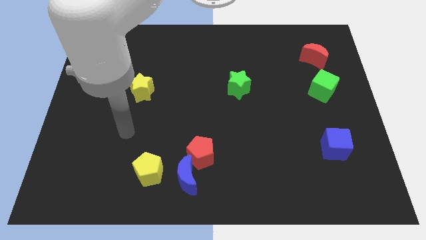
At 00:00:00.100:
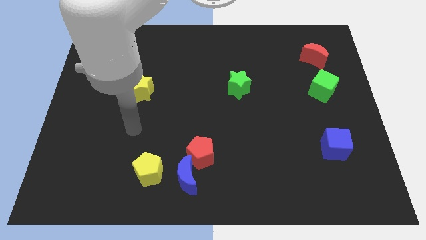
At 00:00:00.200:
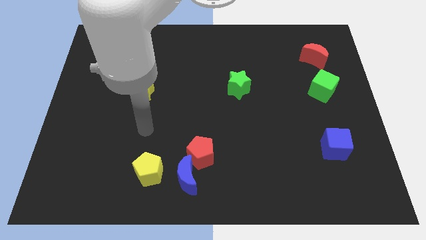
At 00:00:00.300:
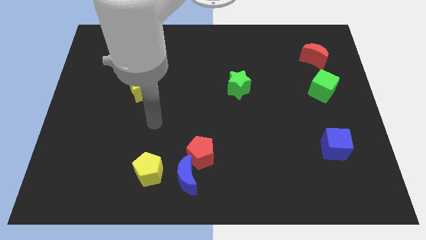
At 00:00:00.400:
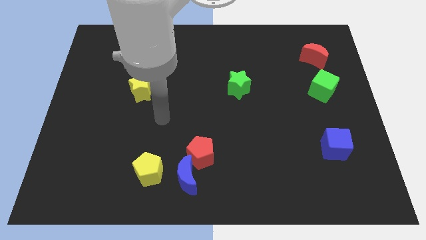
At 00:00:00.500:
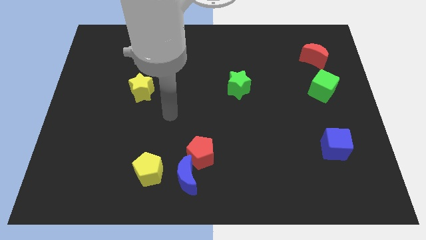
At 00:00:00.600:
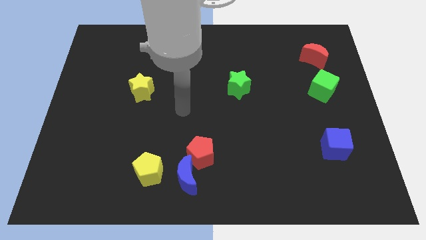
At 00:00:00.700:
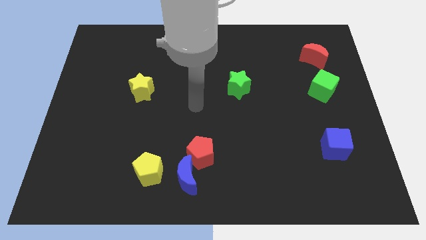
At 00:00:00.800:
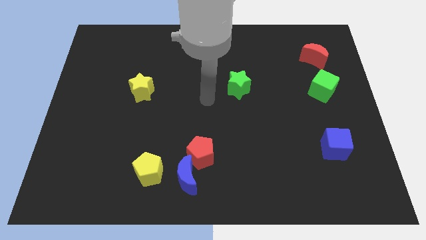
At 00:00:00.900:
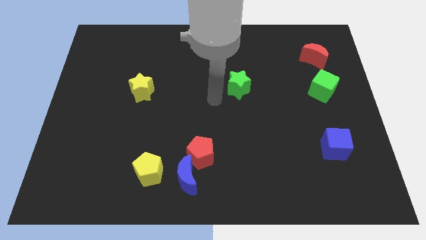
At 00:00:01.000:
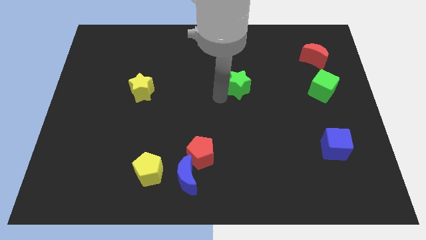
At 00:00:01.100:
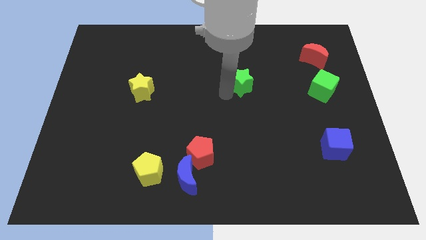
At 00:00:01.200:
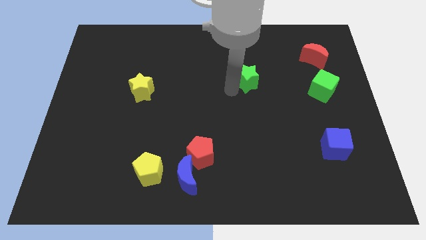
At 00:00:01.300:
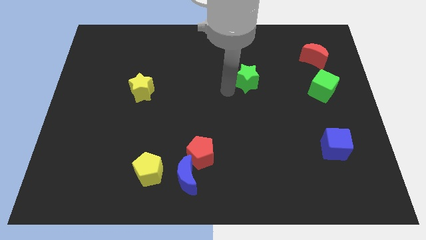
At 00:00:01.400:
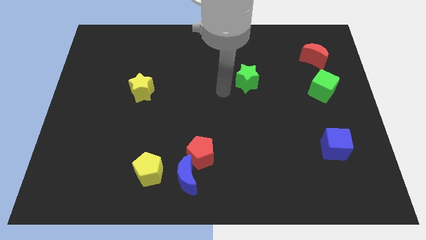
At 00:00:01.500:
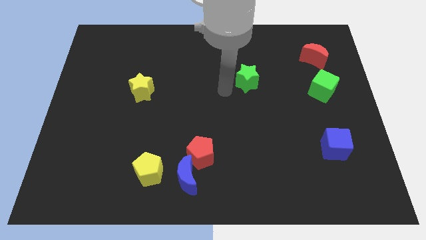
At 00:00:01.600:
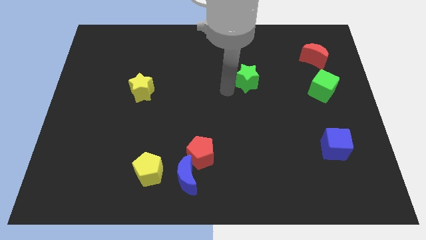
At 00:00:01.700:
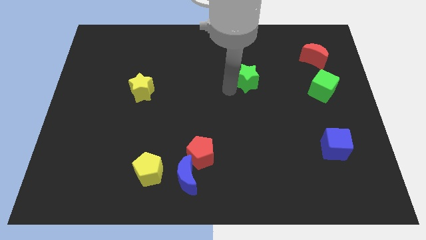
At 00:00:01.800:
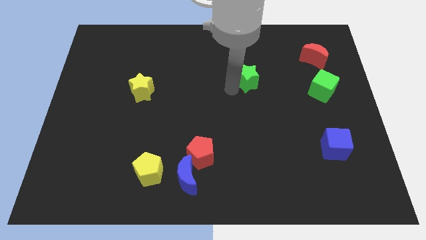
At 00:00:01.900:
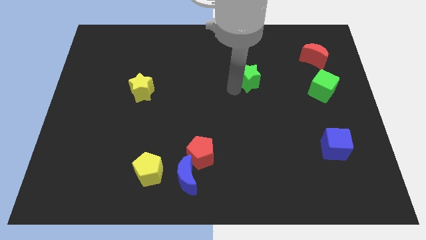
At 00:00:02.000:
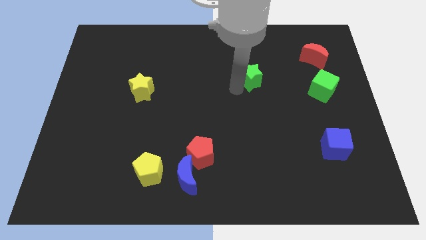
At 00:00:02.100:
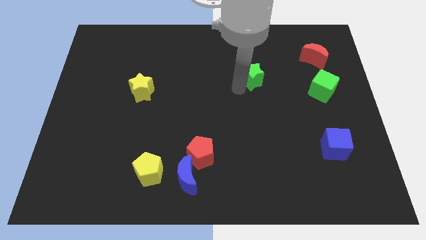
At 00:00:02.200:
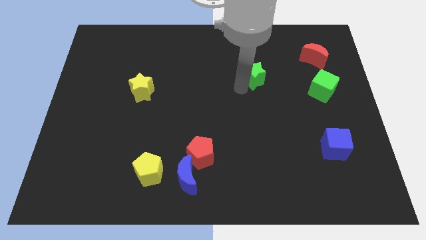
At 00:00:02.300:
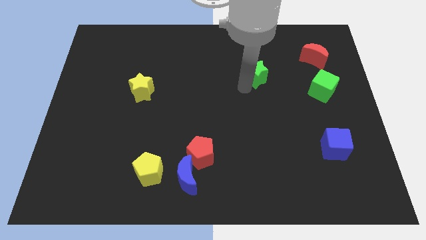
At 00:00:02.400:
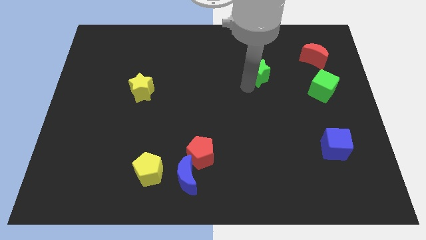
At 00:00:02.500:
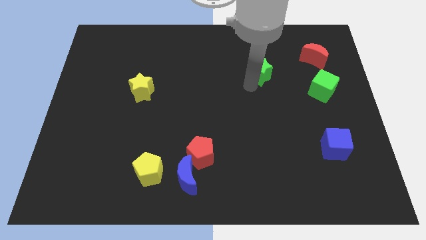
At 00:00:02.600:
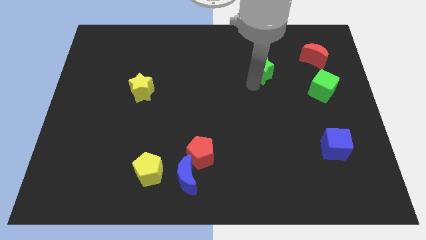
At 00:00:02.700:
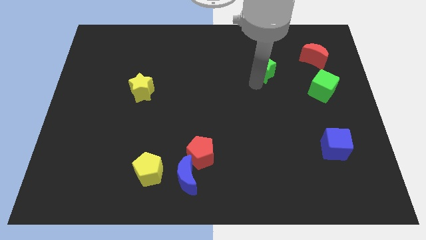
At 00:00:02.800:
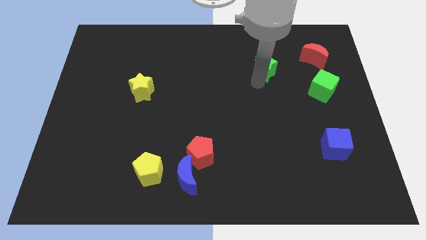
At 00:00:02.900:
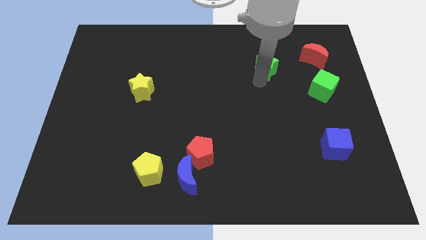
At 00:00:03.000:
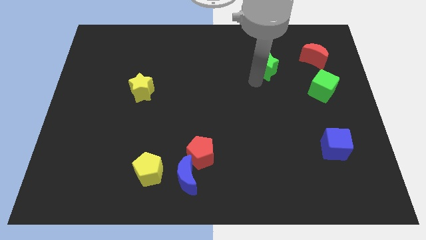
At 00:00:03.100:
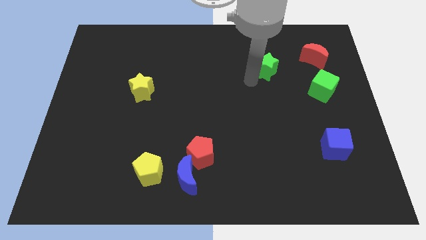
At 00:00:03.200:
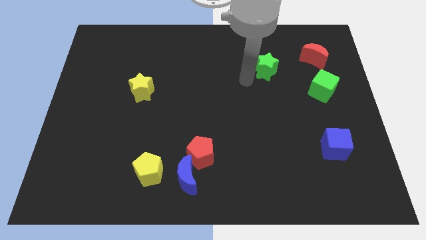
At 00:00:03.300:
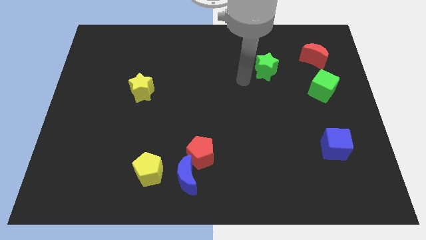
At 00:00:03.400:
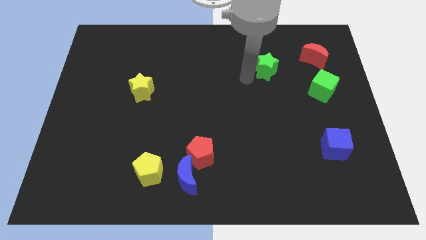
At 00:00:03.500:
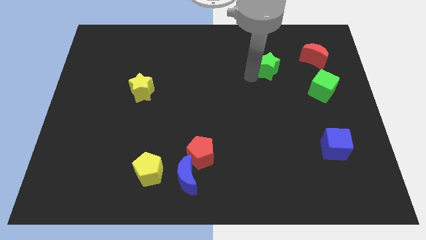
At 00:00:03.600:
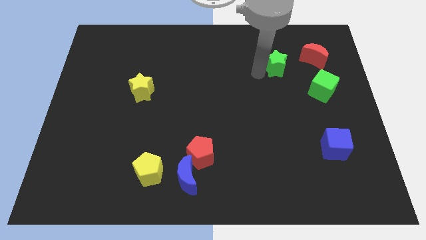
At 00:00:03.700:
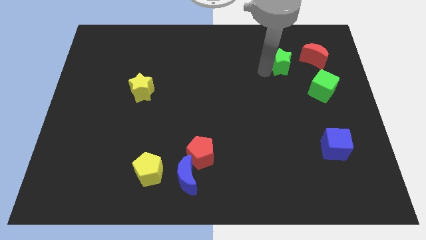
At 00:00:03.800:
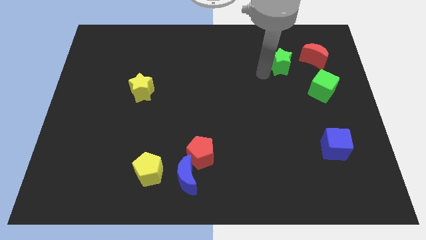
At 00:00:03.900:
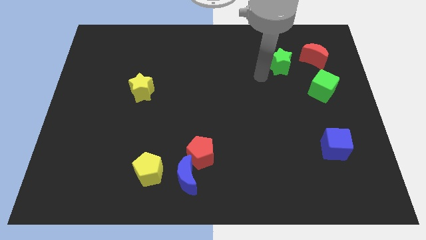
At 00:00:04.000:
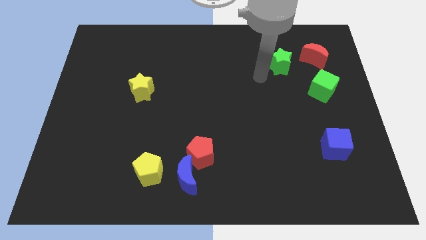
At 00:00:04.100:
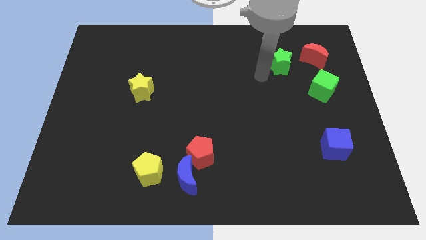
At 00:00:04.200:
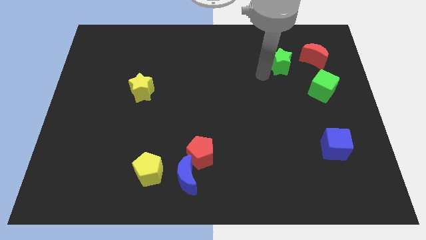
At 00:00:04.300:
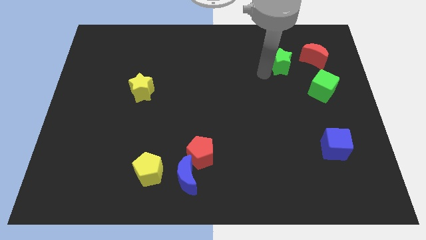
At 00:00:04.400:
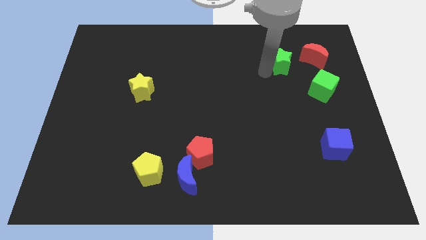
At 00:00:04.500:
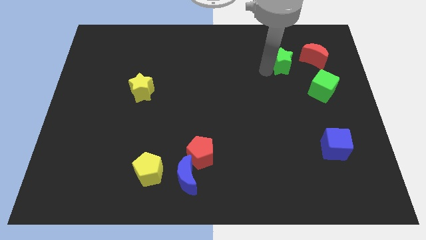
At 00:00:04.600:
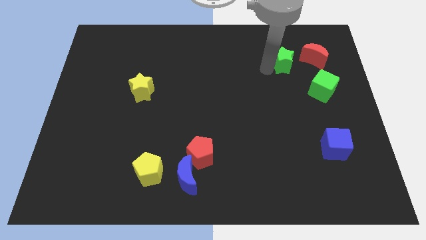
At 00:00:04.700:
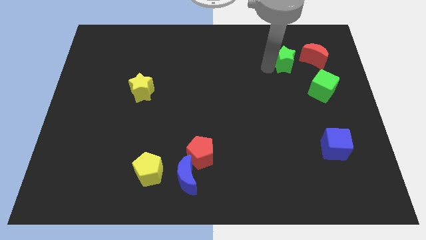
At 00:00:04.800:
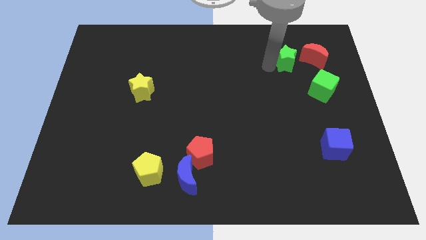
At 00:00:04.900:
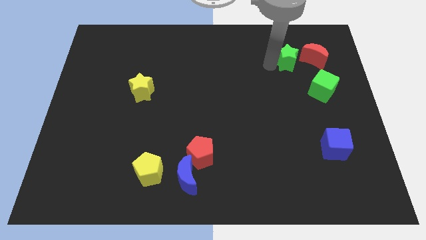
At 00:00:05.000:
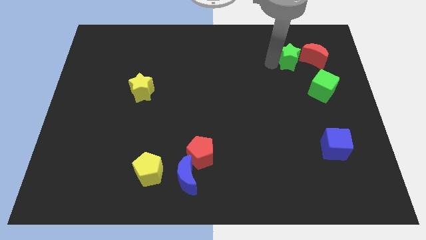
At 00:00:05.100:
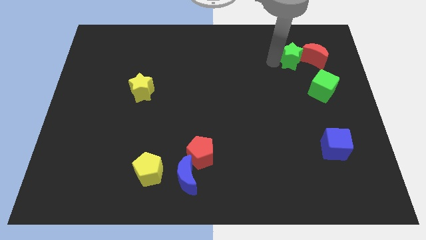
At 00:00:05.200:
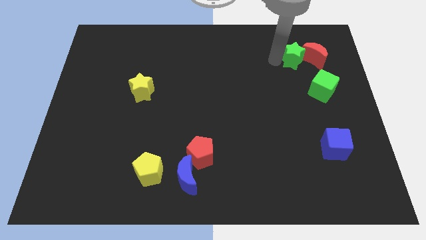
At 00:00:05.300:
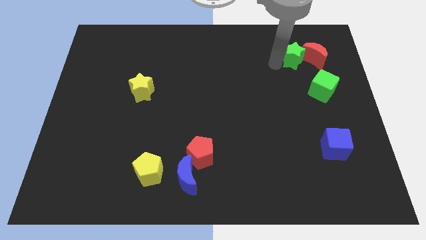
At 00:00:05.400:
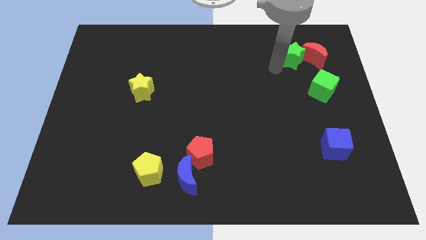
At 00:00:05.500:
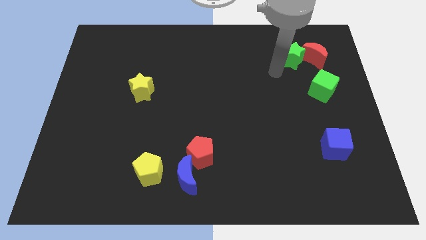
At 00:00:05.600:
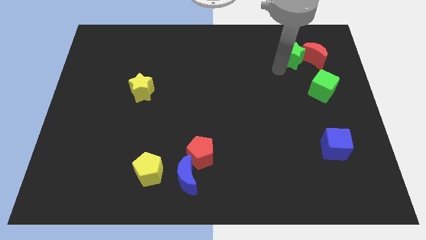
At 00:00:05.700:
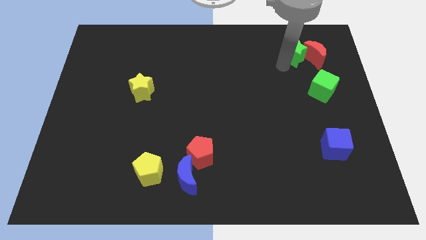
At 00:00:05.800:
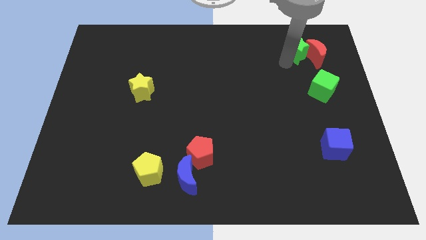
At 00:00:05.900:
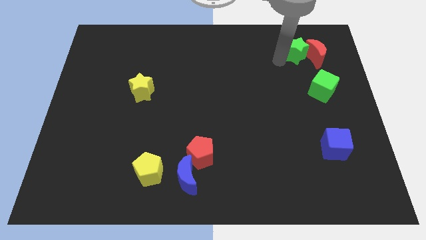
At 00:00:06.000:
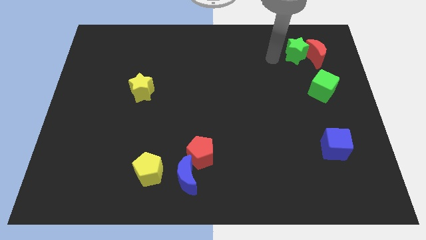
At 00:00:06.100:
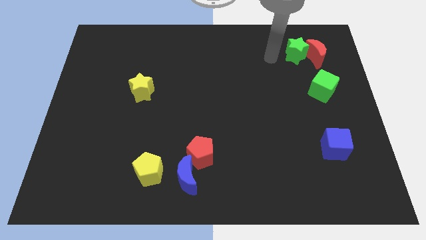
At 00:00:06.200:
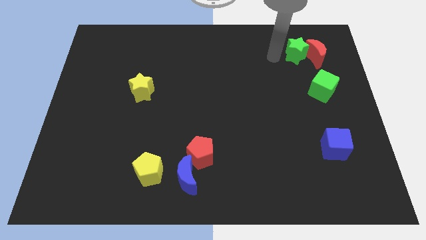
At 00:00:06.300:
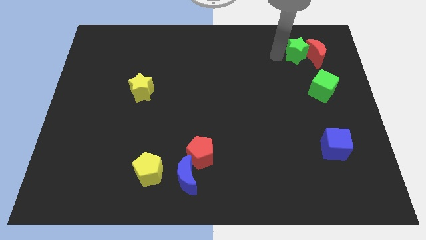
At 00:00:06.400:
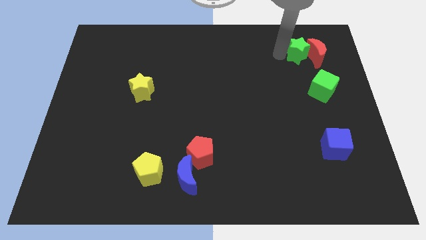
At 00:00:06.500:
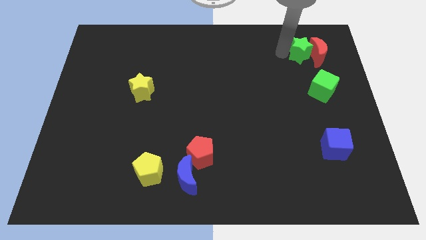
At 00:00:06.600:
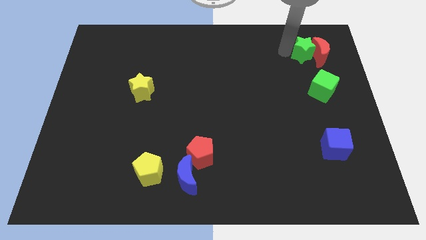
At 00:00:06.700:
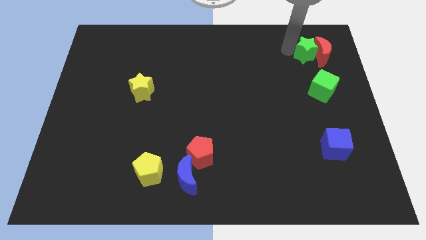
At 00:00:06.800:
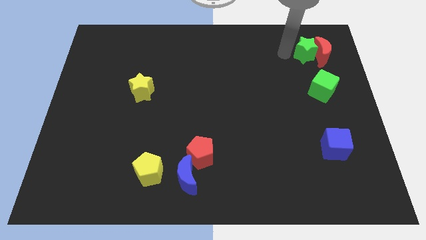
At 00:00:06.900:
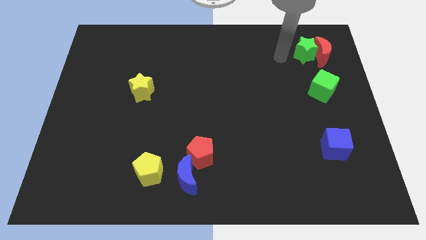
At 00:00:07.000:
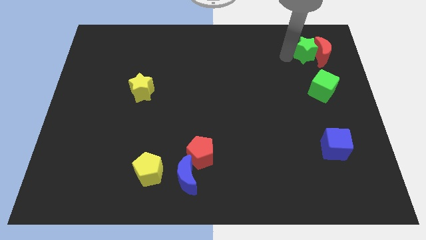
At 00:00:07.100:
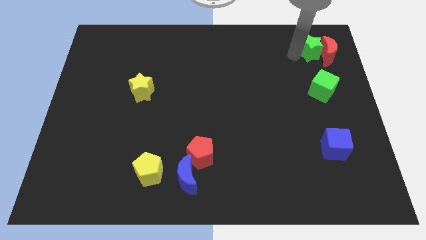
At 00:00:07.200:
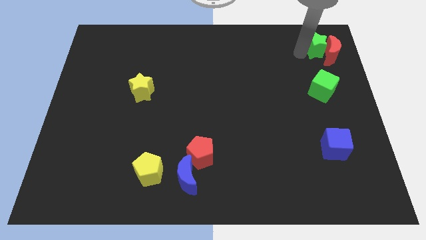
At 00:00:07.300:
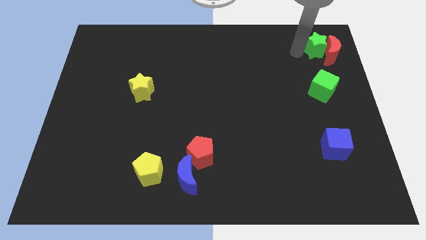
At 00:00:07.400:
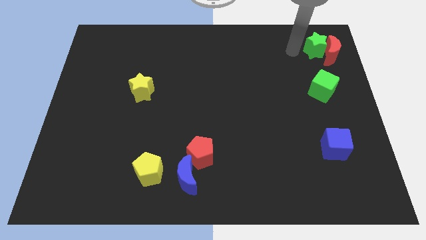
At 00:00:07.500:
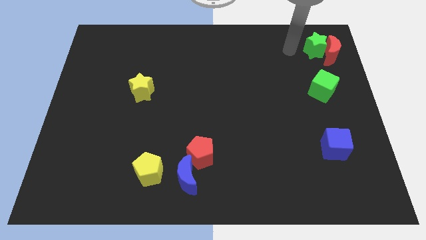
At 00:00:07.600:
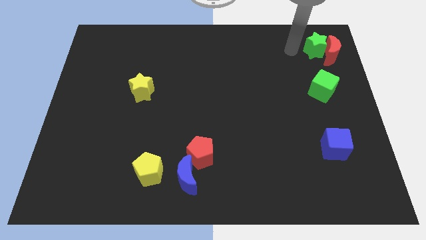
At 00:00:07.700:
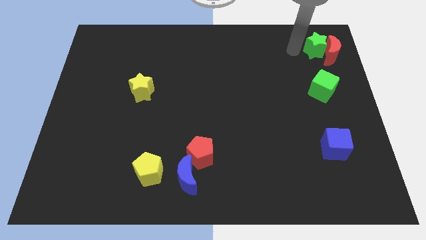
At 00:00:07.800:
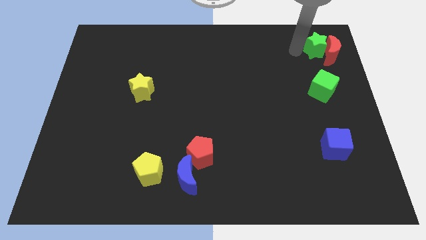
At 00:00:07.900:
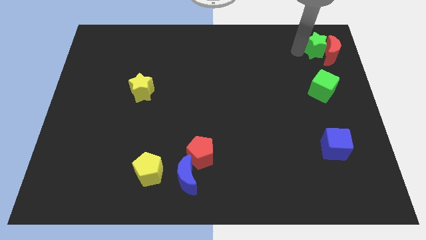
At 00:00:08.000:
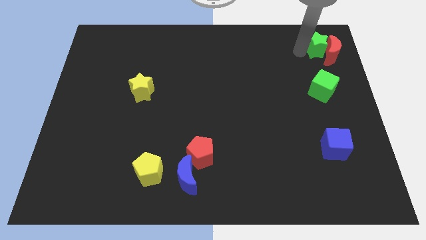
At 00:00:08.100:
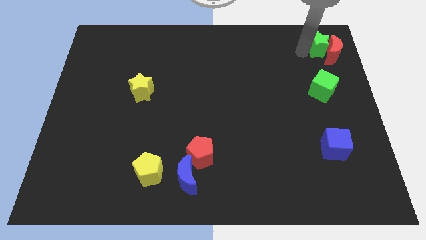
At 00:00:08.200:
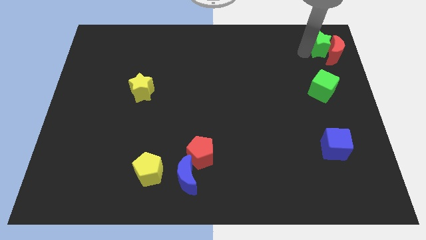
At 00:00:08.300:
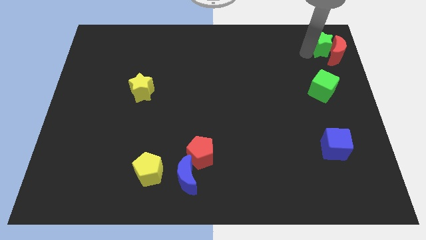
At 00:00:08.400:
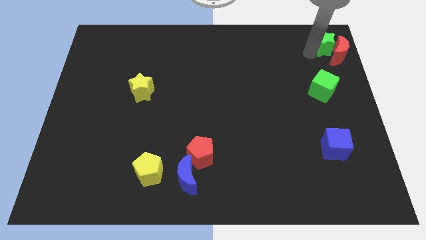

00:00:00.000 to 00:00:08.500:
slide the green star to the top right
